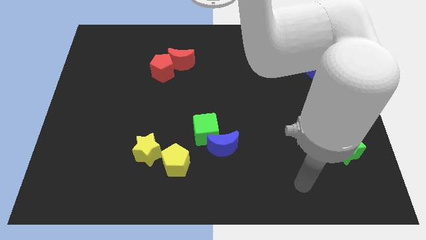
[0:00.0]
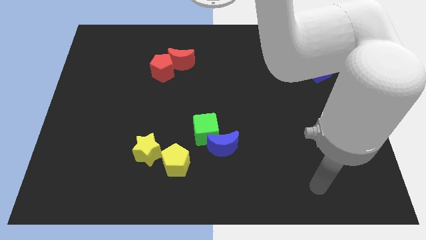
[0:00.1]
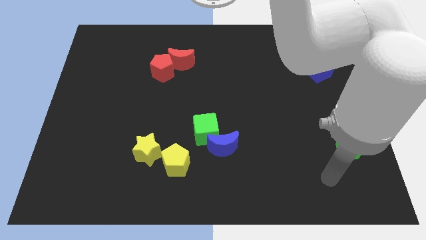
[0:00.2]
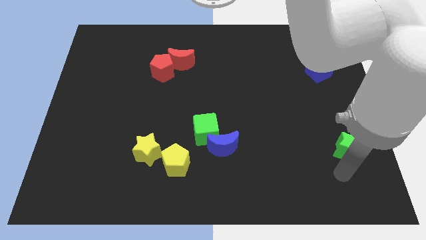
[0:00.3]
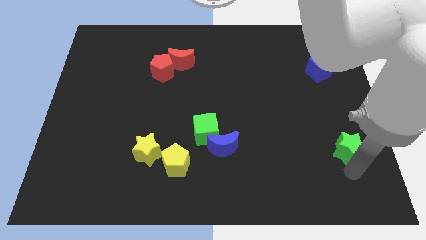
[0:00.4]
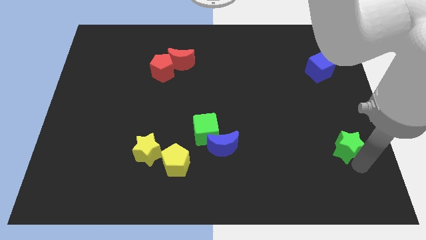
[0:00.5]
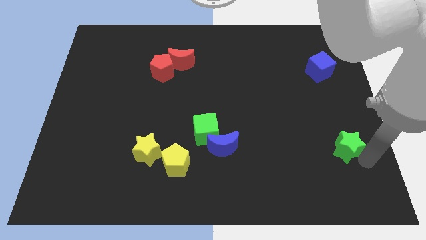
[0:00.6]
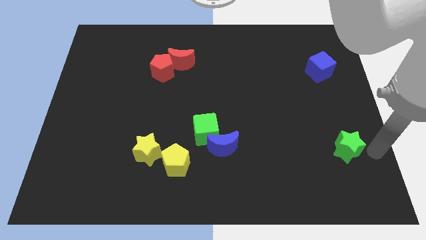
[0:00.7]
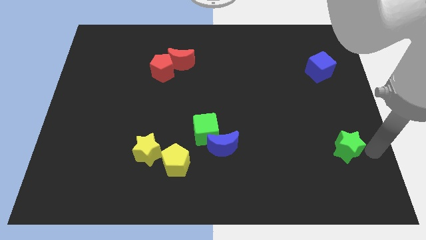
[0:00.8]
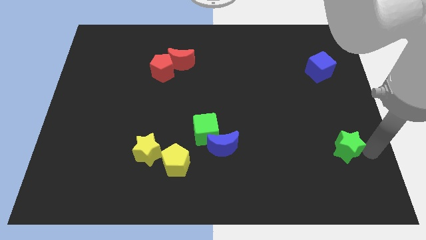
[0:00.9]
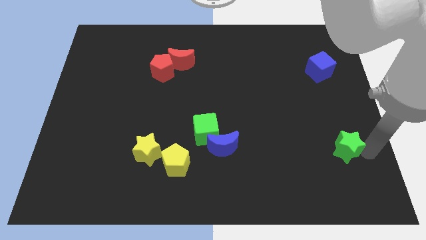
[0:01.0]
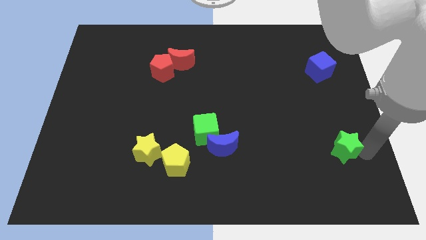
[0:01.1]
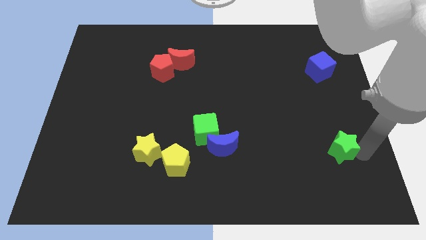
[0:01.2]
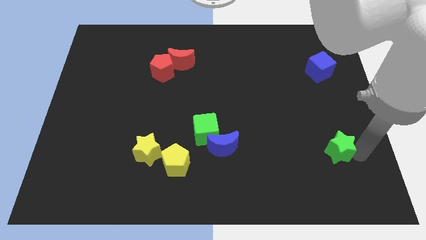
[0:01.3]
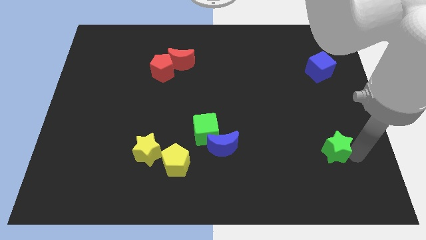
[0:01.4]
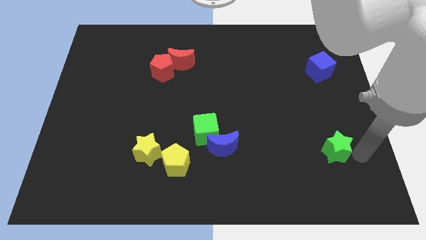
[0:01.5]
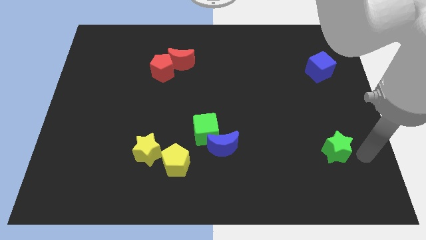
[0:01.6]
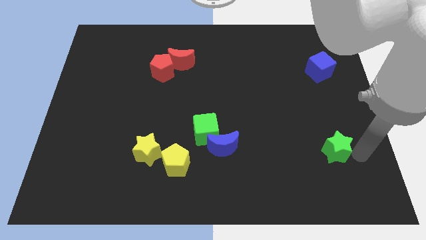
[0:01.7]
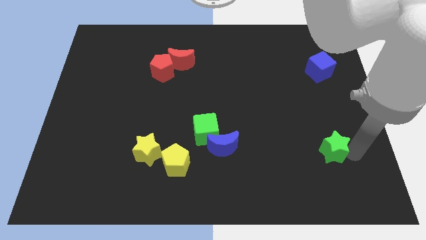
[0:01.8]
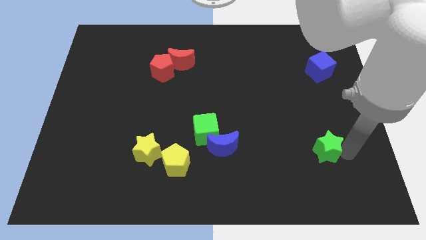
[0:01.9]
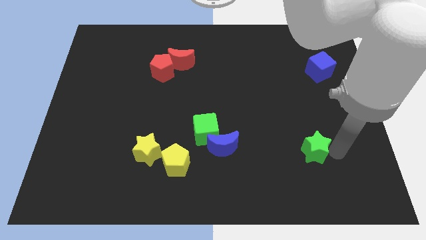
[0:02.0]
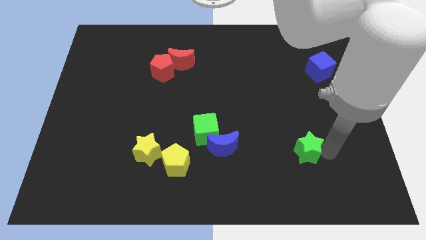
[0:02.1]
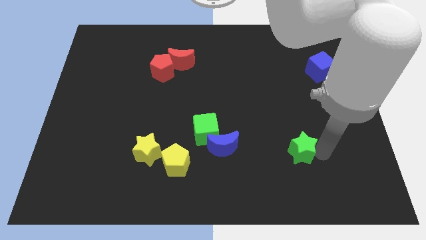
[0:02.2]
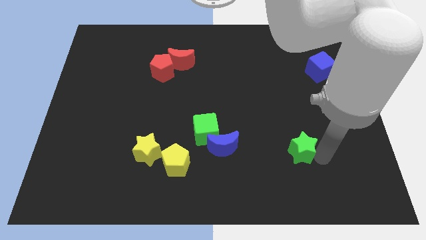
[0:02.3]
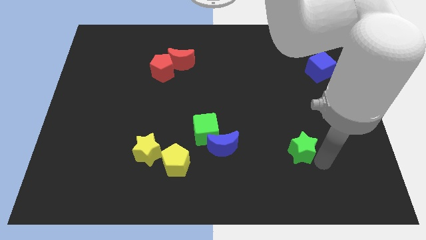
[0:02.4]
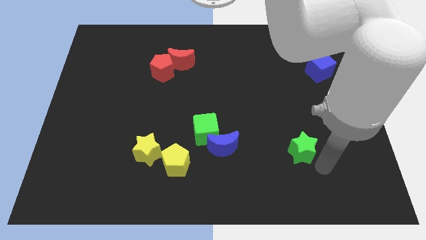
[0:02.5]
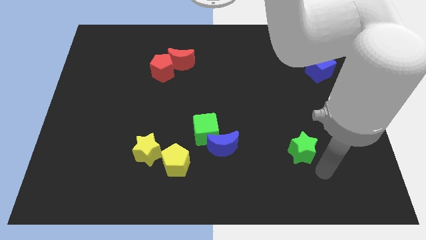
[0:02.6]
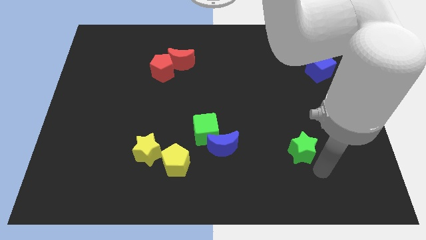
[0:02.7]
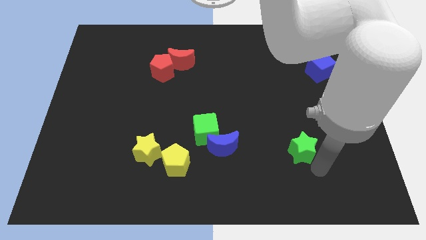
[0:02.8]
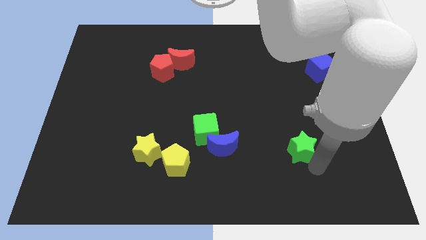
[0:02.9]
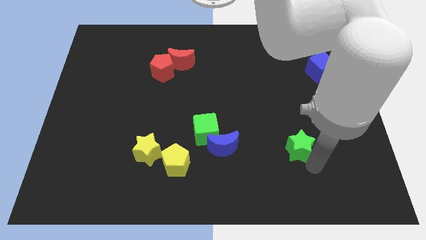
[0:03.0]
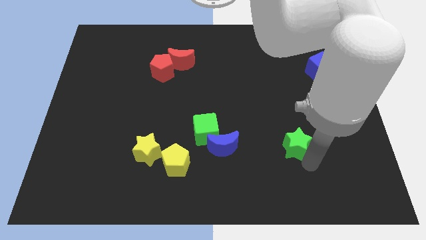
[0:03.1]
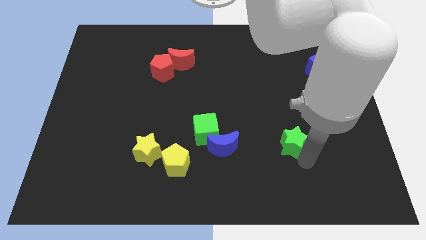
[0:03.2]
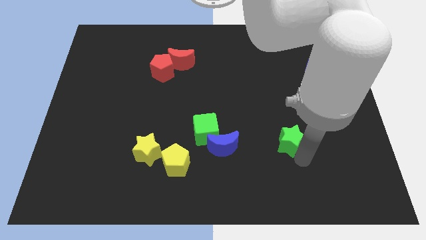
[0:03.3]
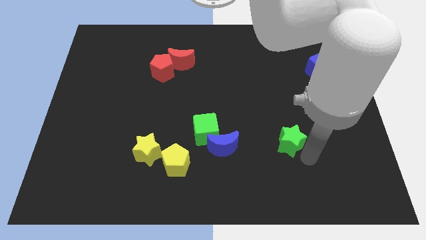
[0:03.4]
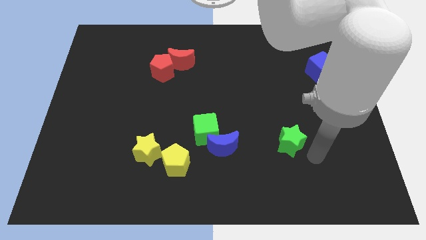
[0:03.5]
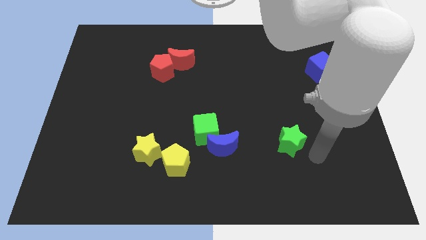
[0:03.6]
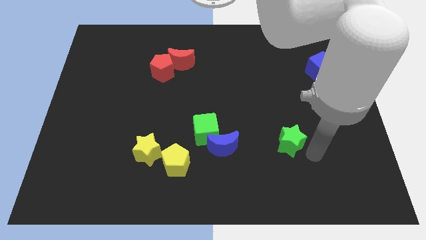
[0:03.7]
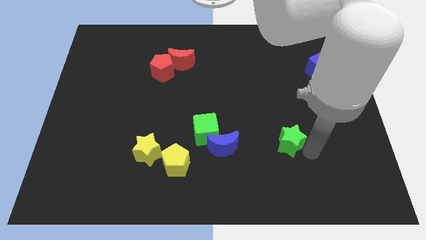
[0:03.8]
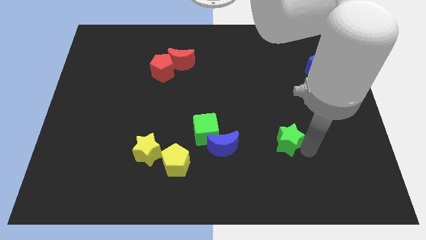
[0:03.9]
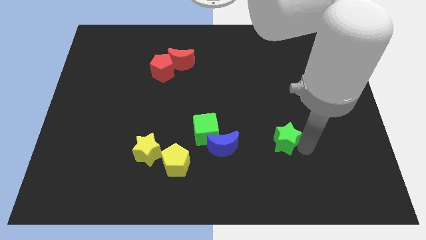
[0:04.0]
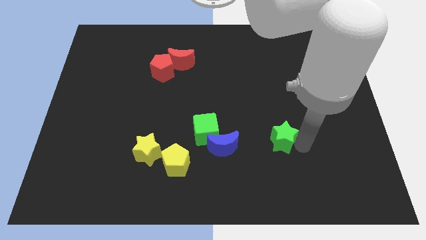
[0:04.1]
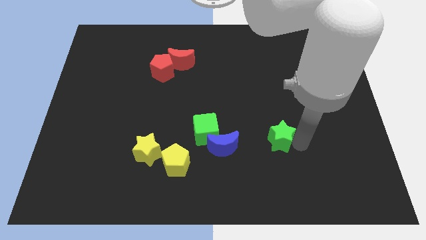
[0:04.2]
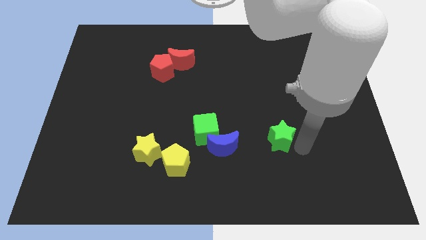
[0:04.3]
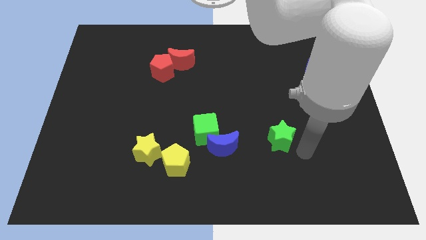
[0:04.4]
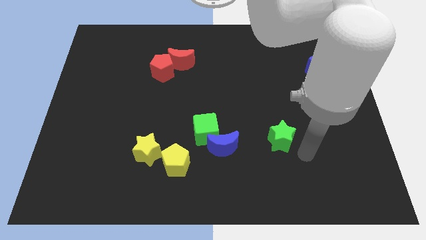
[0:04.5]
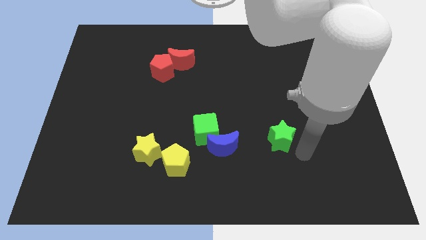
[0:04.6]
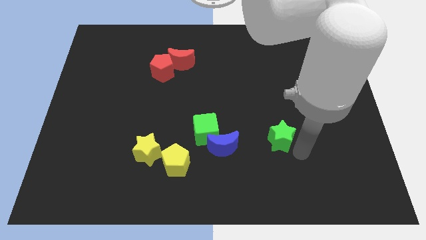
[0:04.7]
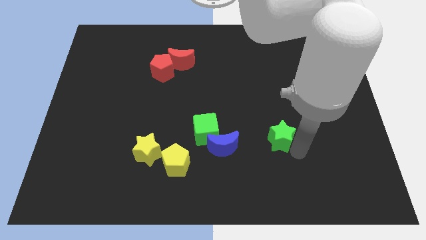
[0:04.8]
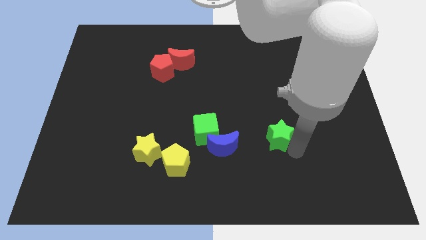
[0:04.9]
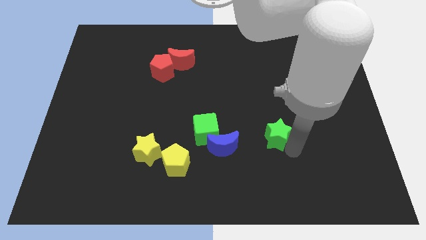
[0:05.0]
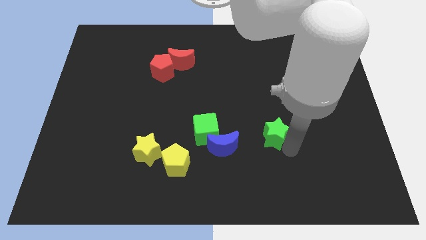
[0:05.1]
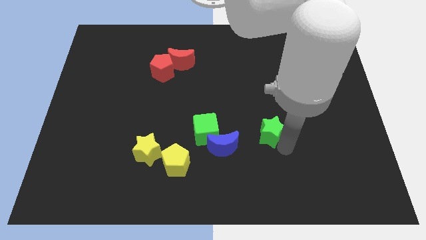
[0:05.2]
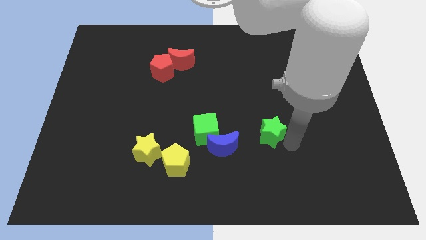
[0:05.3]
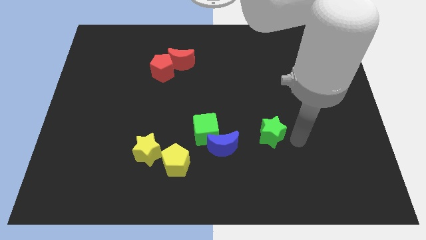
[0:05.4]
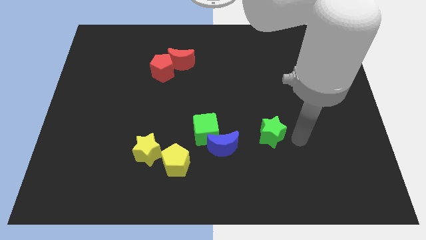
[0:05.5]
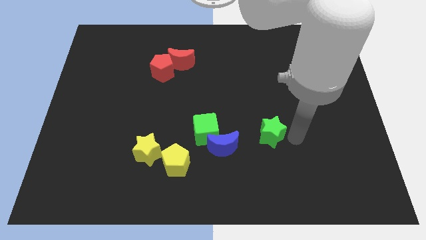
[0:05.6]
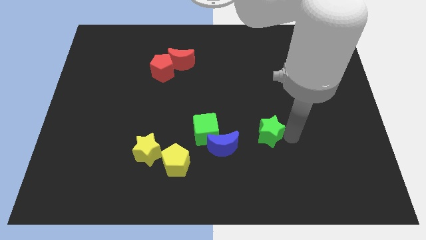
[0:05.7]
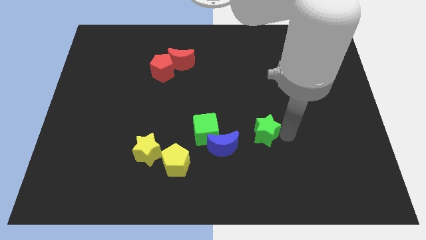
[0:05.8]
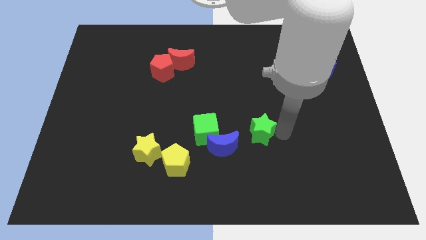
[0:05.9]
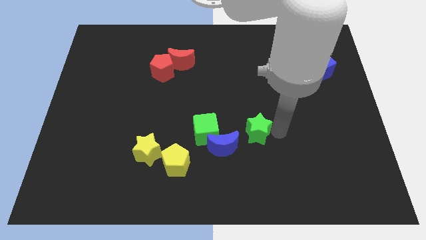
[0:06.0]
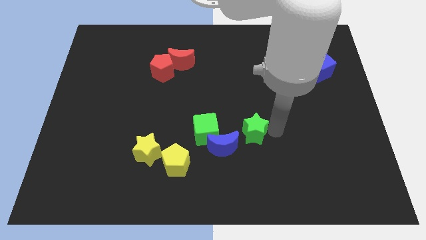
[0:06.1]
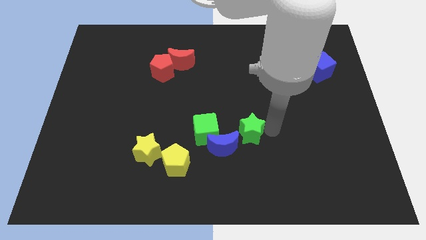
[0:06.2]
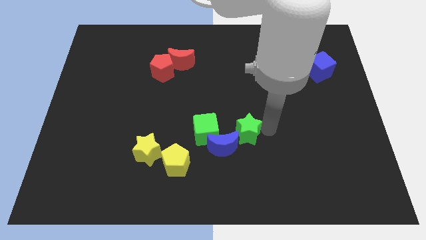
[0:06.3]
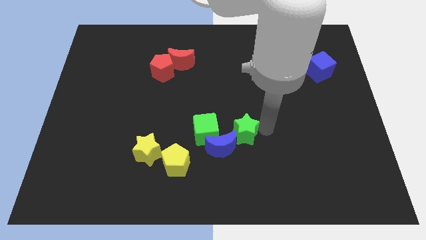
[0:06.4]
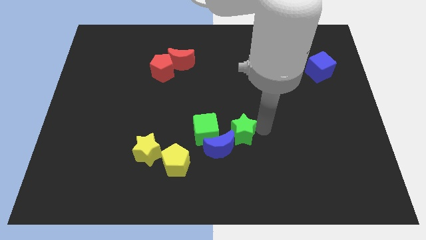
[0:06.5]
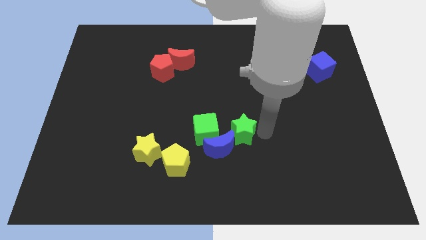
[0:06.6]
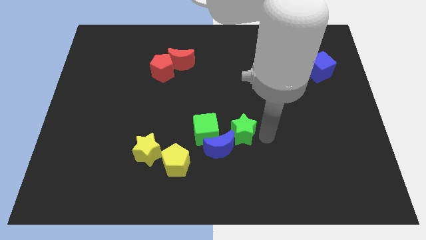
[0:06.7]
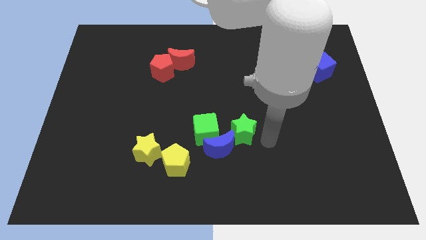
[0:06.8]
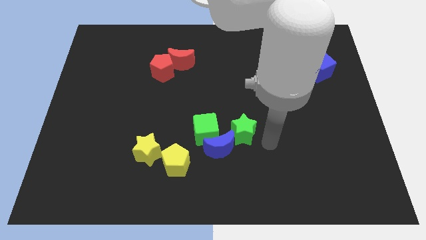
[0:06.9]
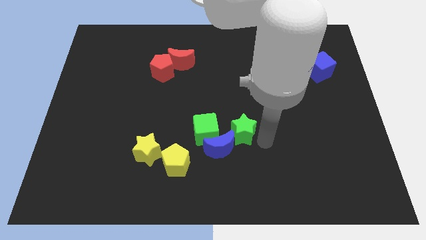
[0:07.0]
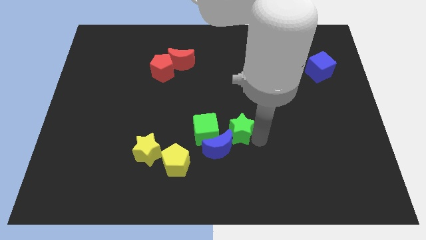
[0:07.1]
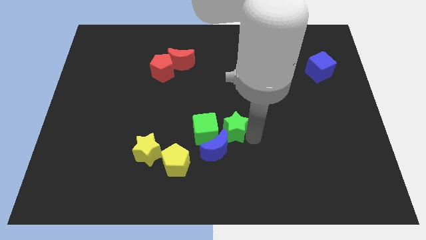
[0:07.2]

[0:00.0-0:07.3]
move the green star to the green cube

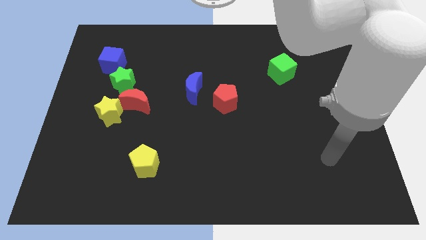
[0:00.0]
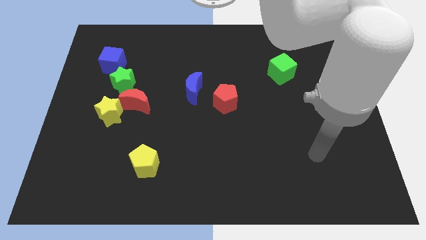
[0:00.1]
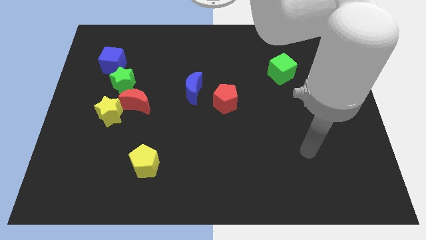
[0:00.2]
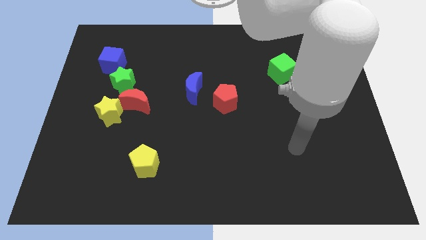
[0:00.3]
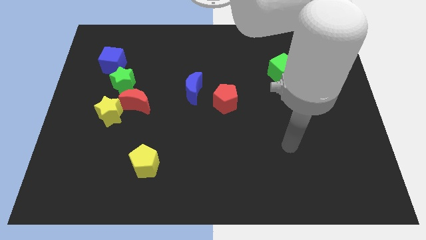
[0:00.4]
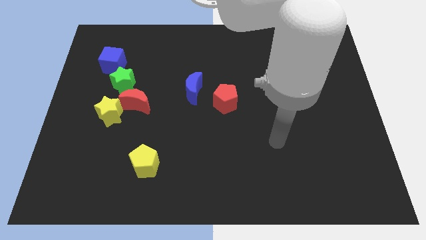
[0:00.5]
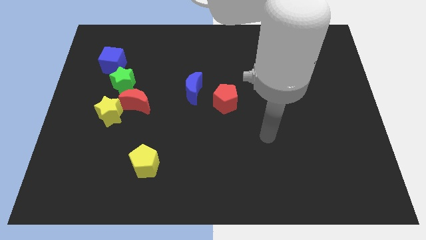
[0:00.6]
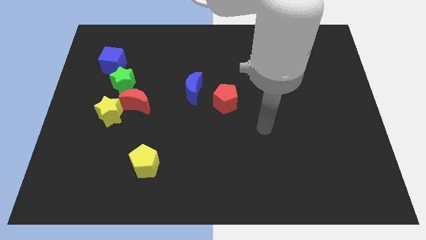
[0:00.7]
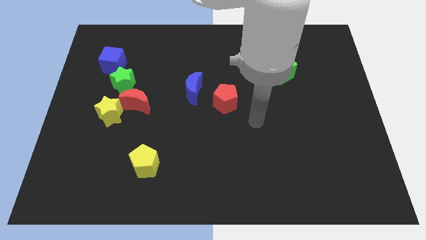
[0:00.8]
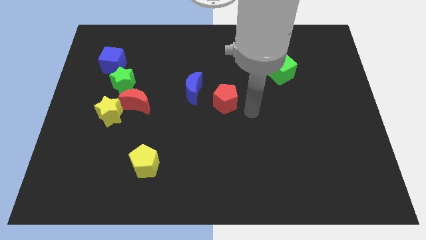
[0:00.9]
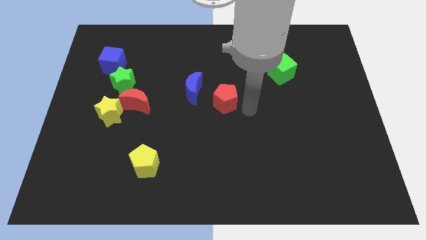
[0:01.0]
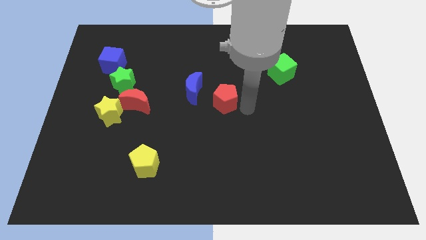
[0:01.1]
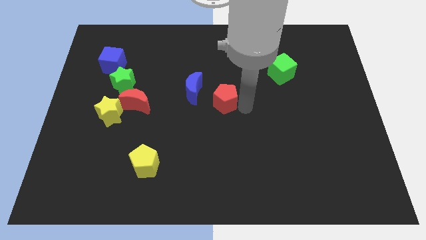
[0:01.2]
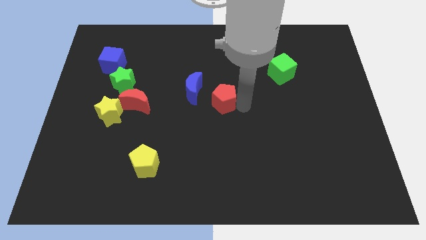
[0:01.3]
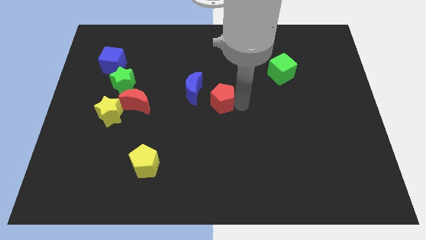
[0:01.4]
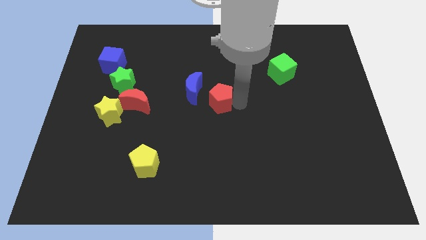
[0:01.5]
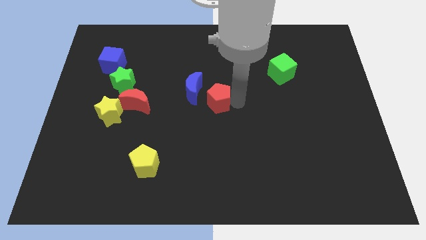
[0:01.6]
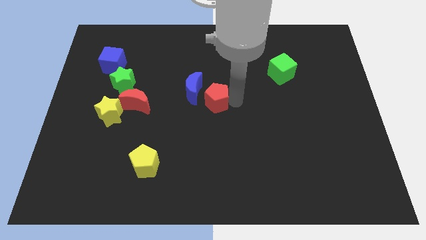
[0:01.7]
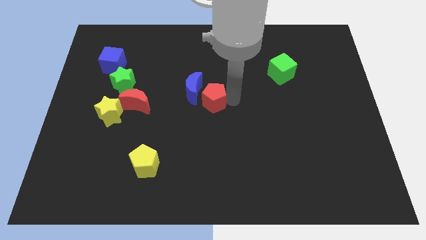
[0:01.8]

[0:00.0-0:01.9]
put the red pentagon towards the blue moon
